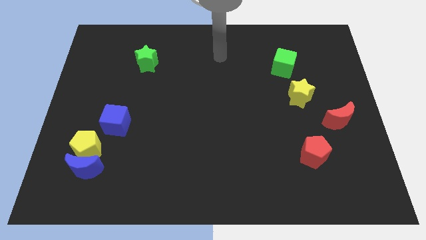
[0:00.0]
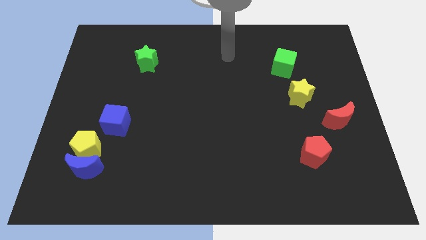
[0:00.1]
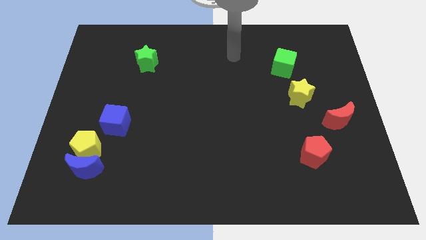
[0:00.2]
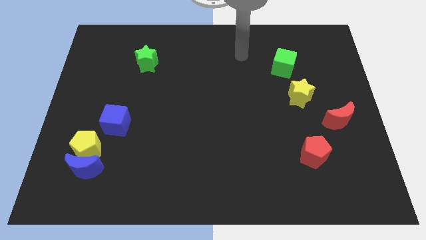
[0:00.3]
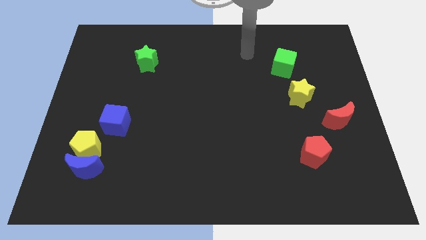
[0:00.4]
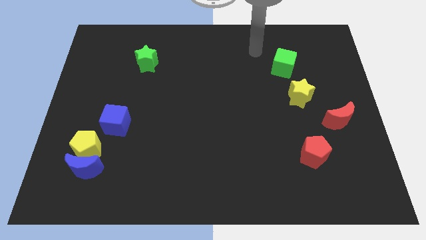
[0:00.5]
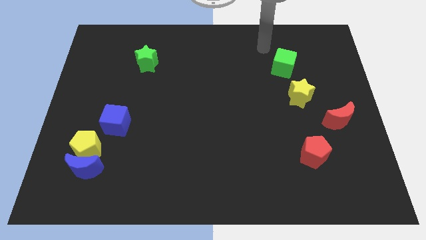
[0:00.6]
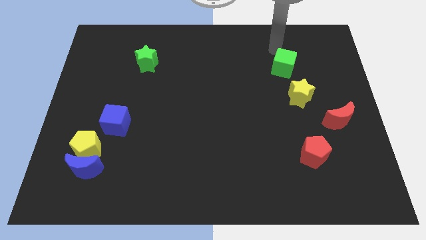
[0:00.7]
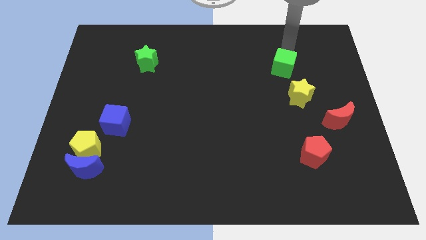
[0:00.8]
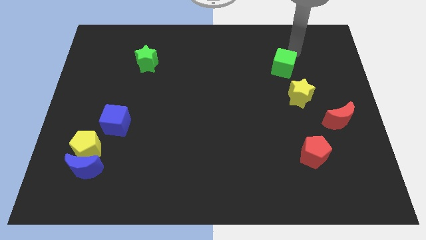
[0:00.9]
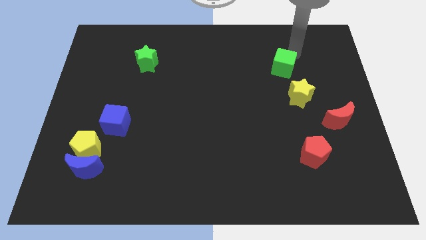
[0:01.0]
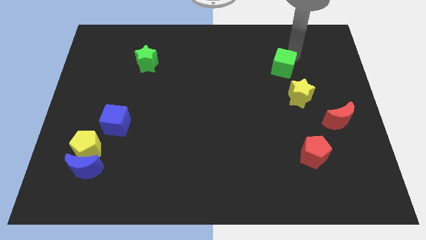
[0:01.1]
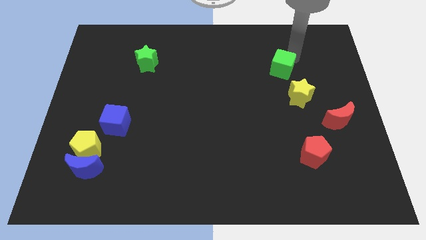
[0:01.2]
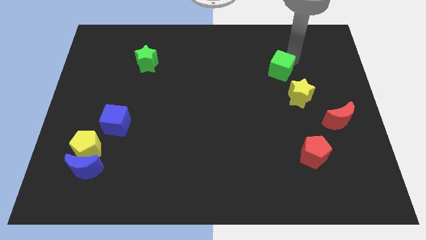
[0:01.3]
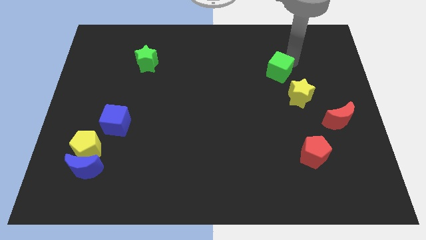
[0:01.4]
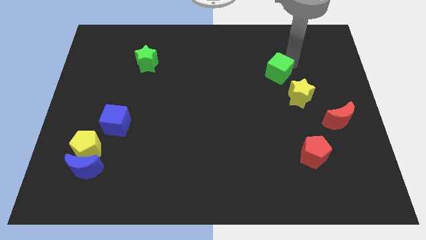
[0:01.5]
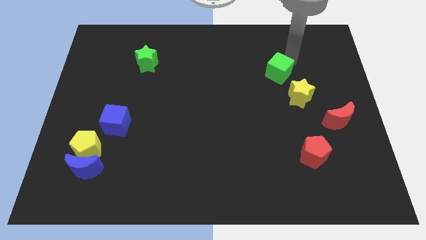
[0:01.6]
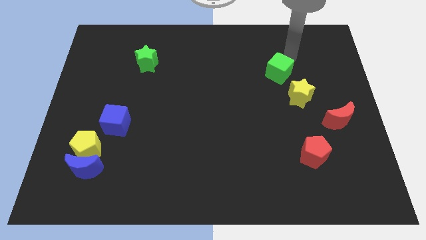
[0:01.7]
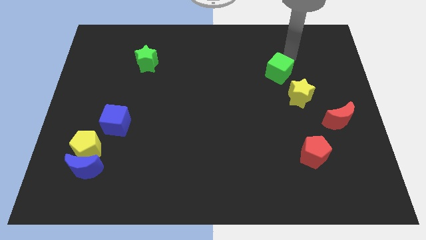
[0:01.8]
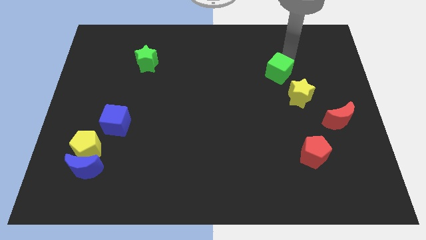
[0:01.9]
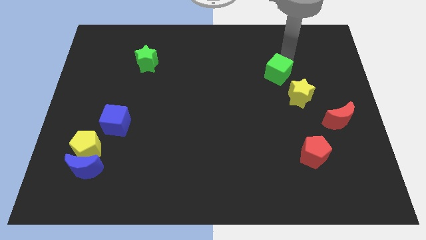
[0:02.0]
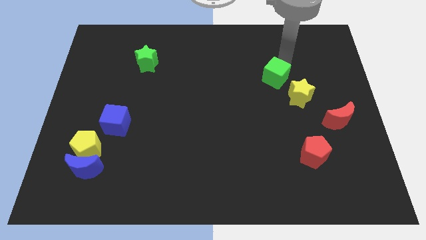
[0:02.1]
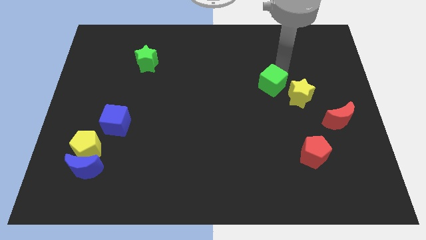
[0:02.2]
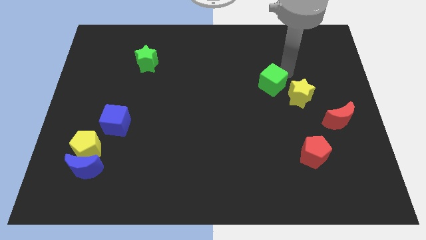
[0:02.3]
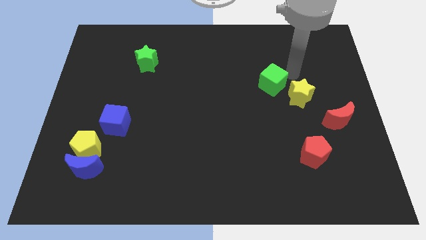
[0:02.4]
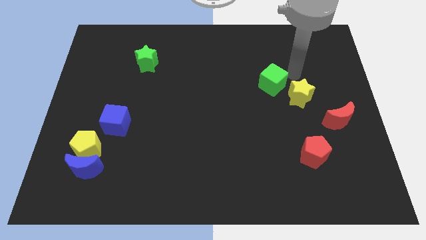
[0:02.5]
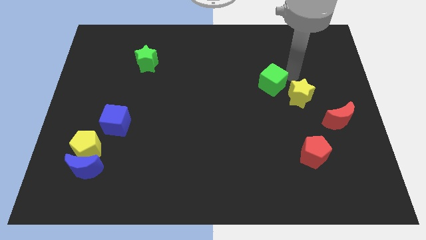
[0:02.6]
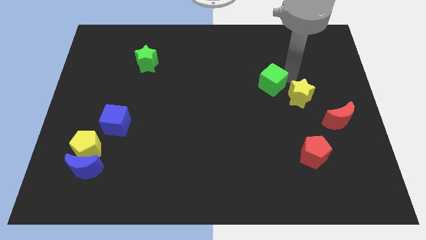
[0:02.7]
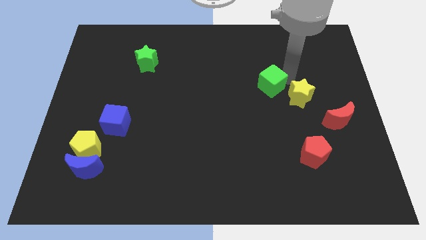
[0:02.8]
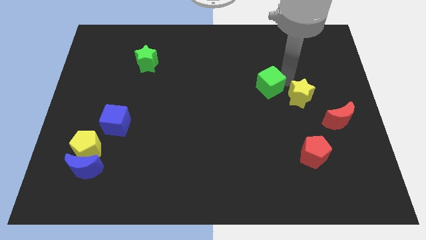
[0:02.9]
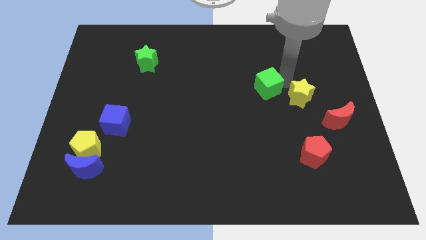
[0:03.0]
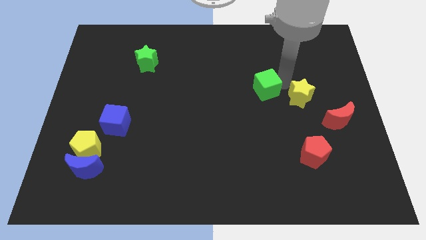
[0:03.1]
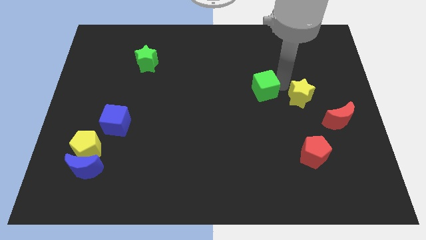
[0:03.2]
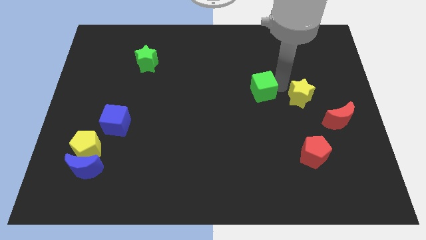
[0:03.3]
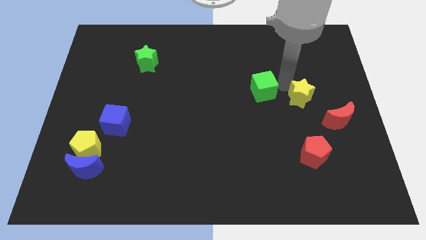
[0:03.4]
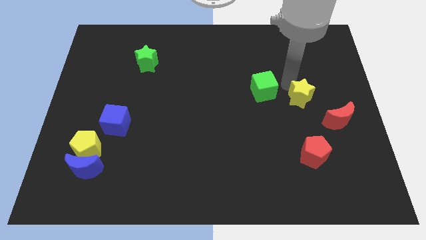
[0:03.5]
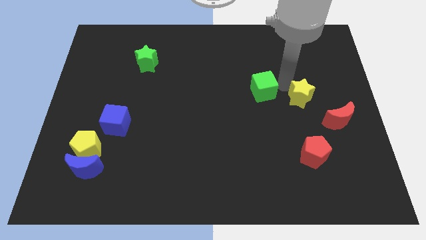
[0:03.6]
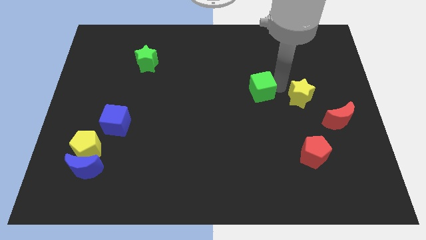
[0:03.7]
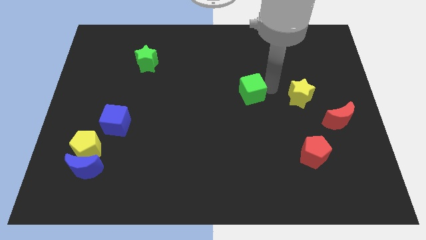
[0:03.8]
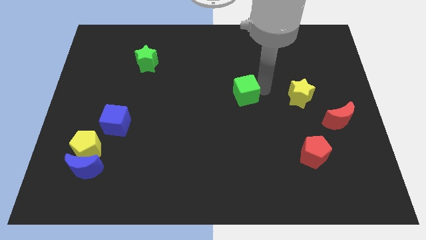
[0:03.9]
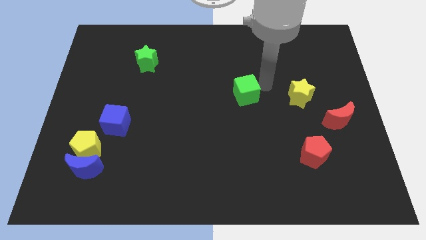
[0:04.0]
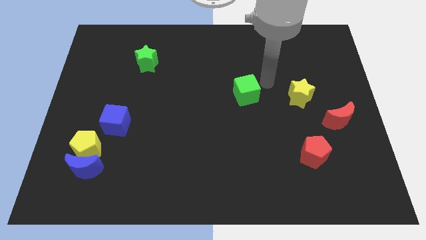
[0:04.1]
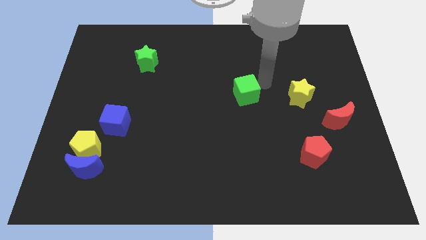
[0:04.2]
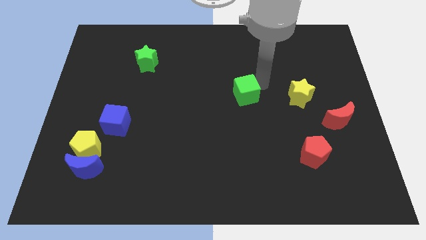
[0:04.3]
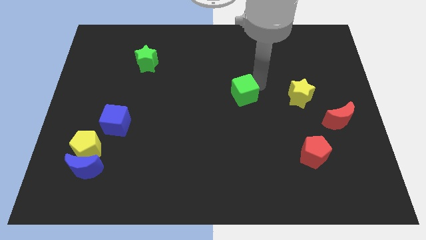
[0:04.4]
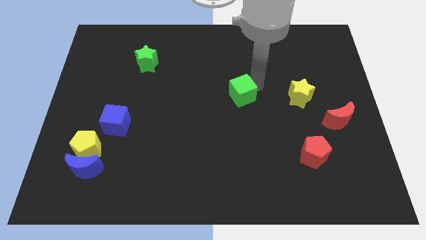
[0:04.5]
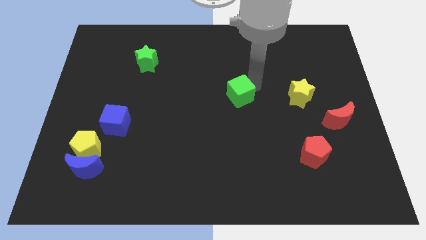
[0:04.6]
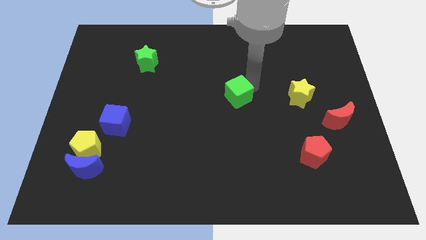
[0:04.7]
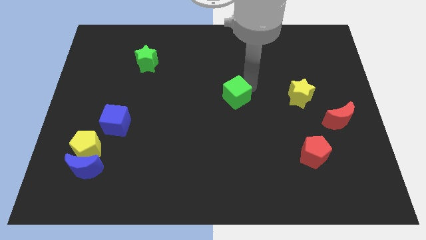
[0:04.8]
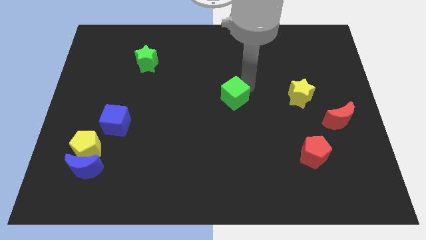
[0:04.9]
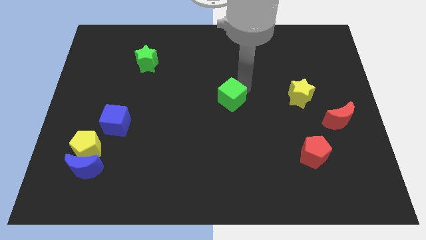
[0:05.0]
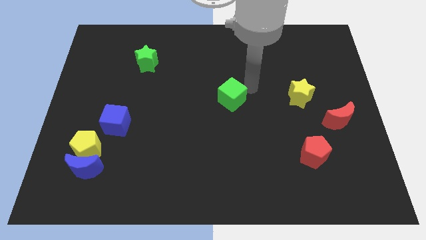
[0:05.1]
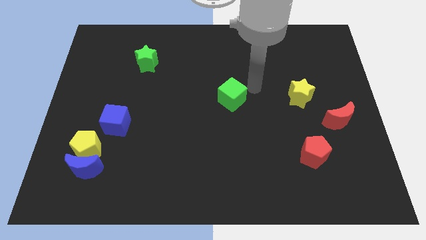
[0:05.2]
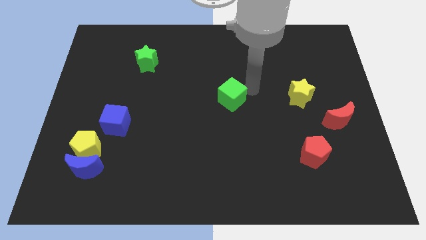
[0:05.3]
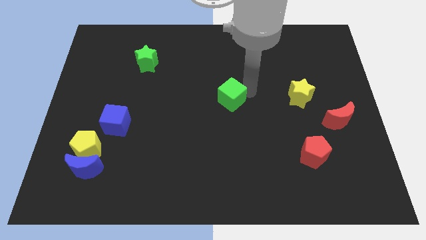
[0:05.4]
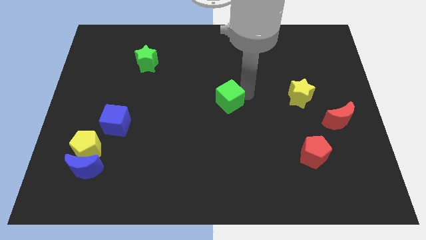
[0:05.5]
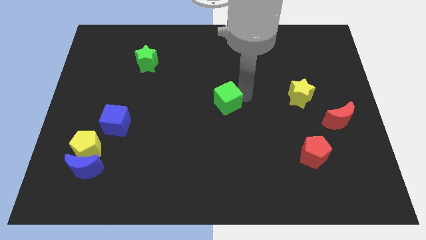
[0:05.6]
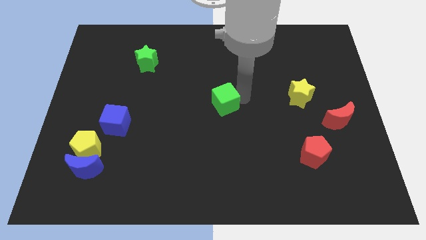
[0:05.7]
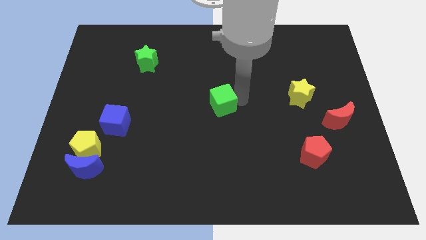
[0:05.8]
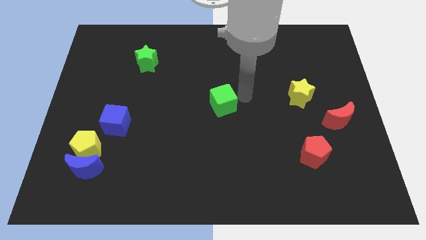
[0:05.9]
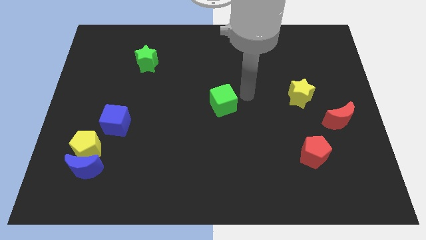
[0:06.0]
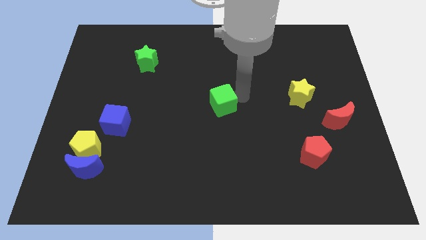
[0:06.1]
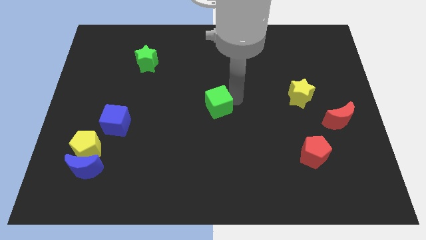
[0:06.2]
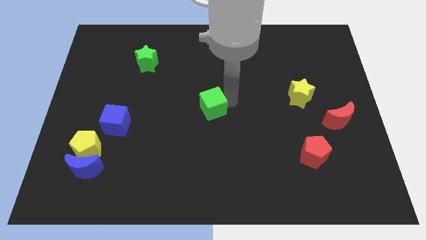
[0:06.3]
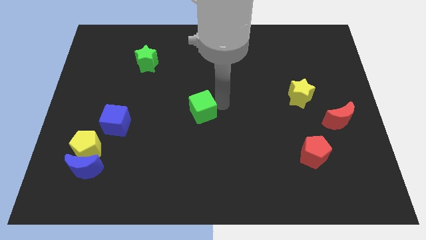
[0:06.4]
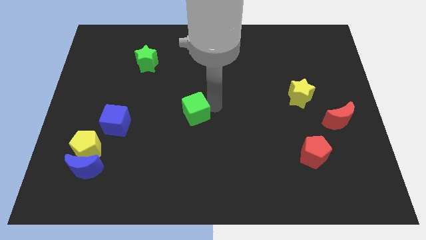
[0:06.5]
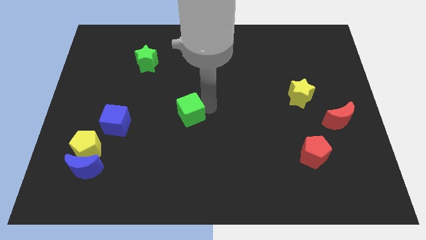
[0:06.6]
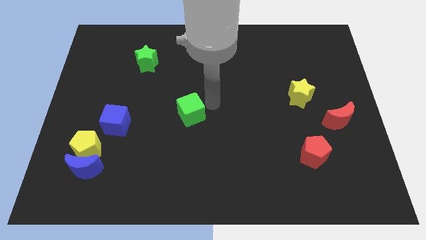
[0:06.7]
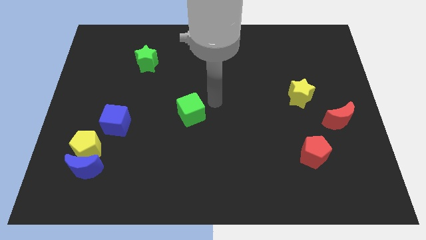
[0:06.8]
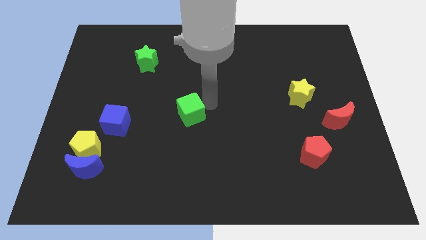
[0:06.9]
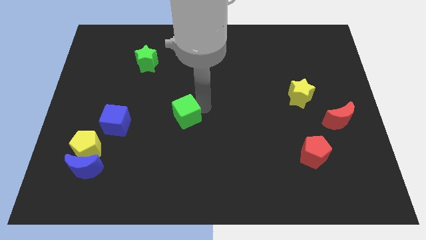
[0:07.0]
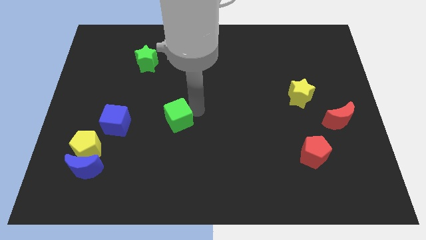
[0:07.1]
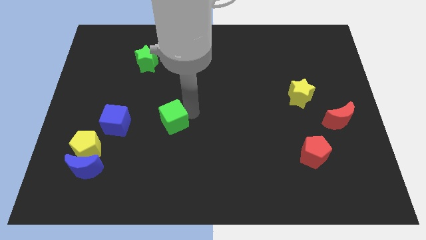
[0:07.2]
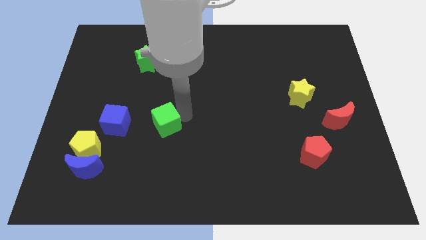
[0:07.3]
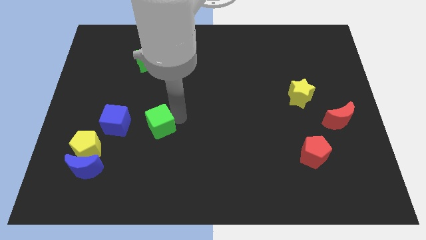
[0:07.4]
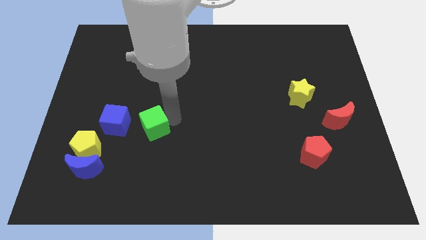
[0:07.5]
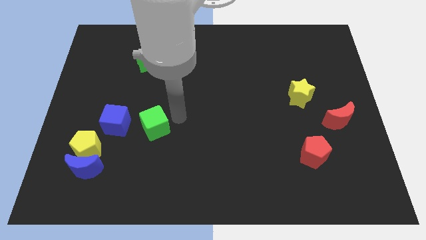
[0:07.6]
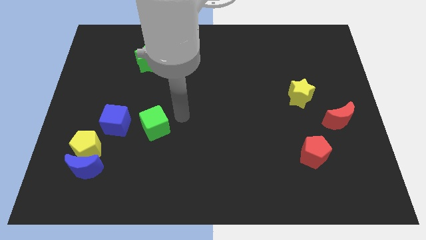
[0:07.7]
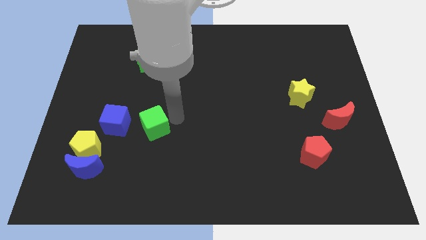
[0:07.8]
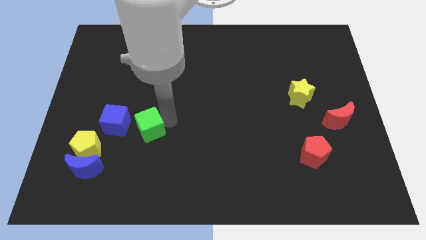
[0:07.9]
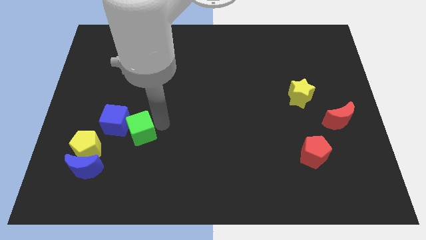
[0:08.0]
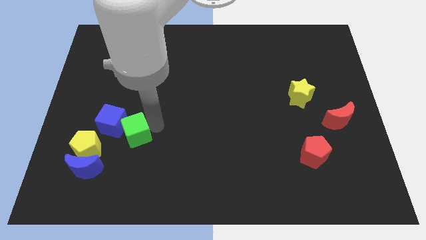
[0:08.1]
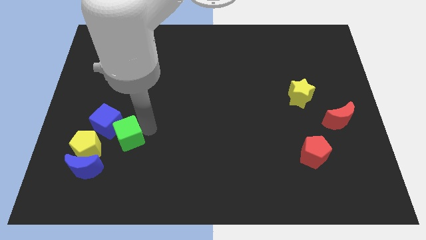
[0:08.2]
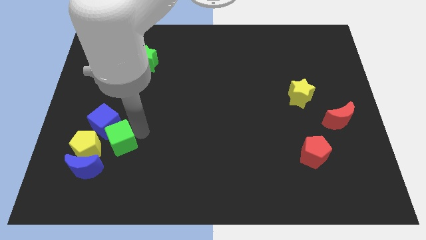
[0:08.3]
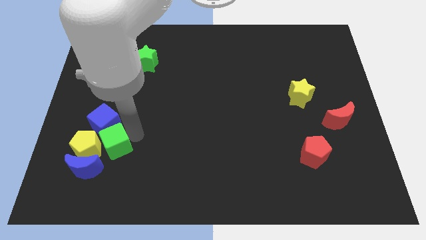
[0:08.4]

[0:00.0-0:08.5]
put the green cube to the yellow pentagon
